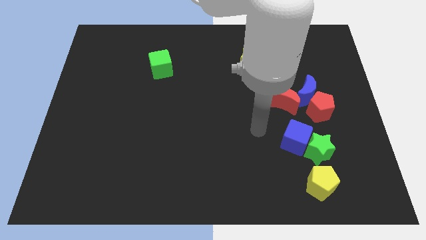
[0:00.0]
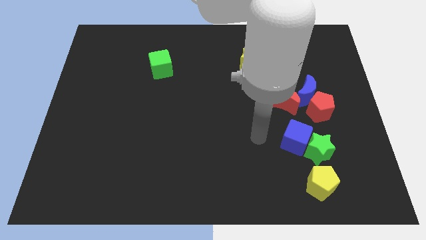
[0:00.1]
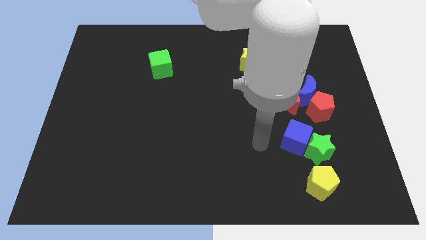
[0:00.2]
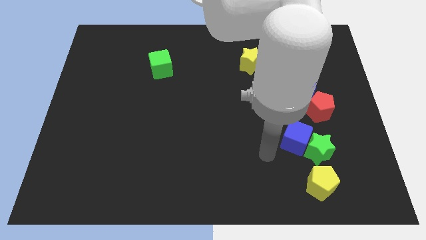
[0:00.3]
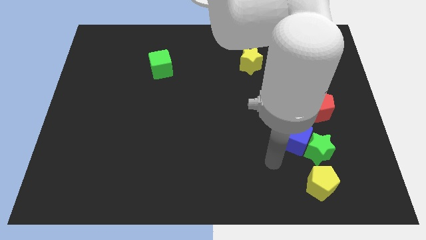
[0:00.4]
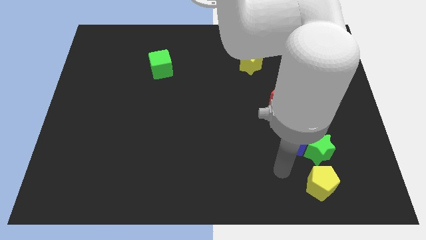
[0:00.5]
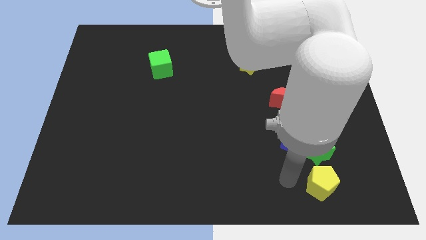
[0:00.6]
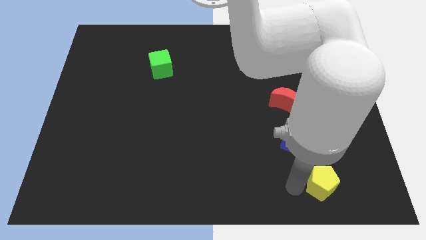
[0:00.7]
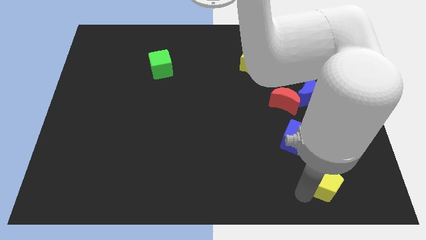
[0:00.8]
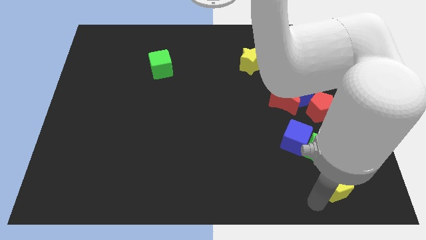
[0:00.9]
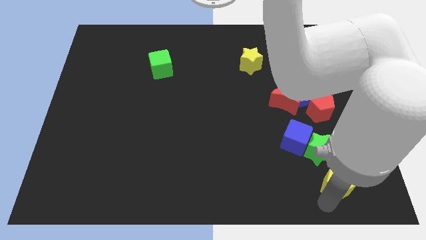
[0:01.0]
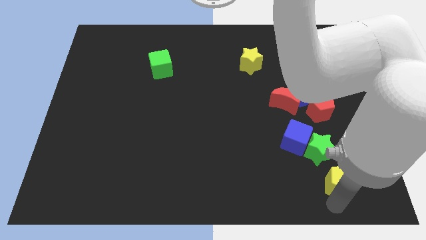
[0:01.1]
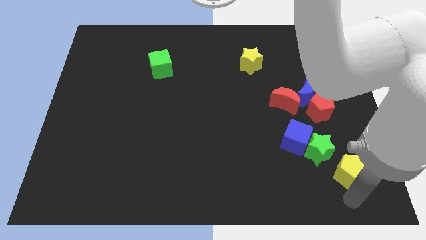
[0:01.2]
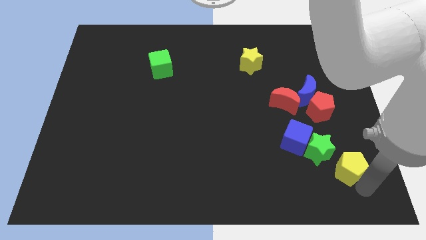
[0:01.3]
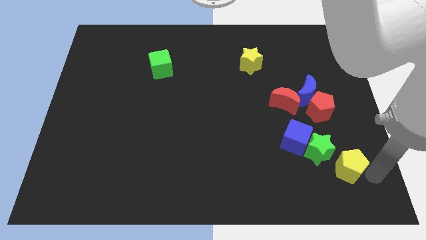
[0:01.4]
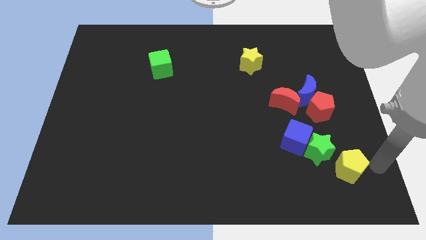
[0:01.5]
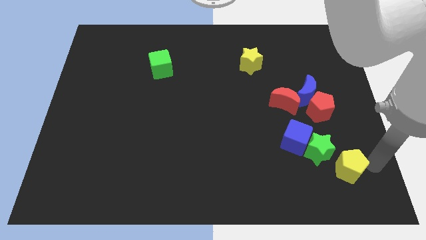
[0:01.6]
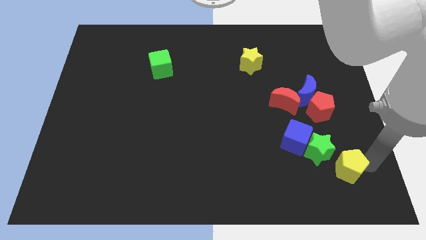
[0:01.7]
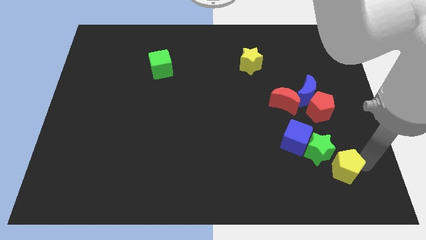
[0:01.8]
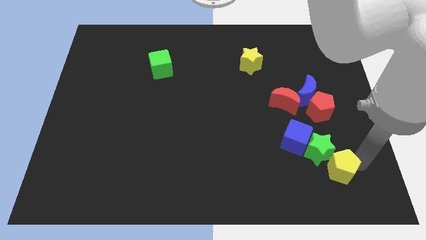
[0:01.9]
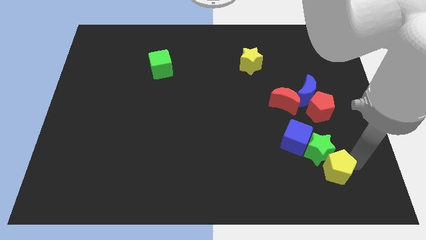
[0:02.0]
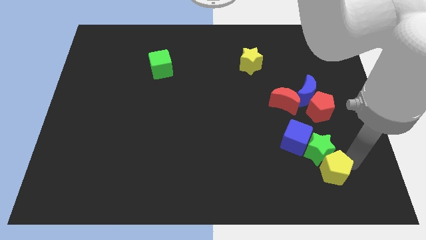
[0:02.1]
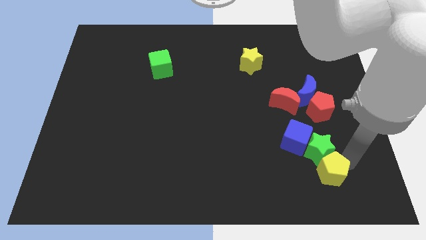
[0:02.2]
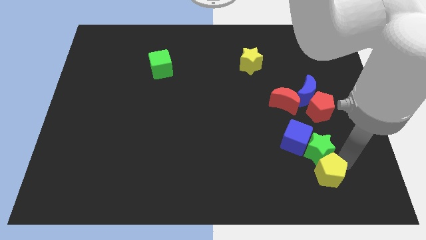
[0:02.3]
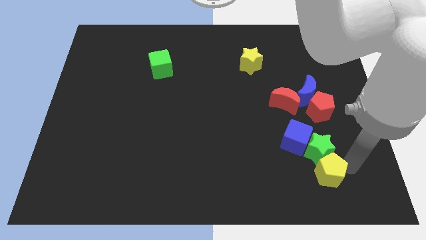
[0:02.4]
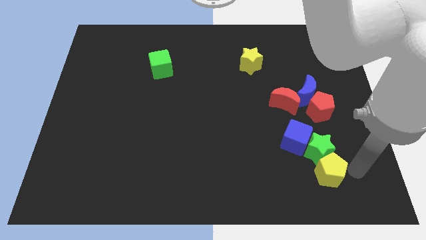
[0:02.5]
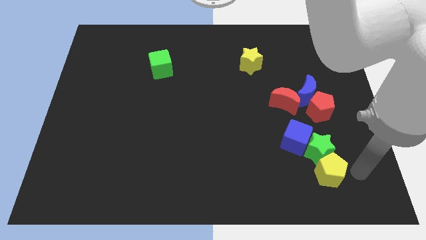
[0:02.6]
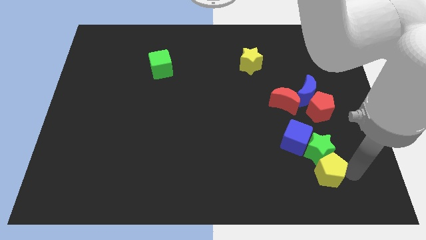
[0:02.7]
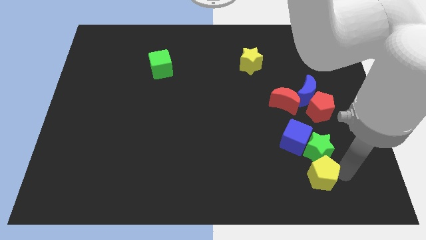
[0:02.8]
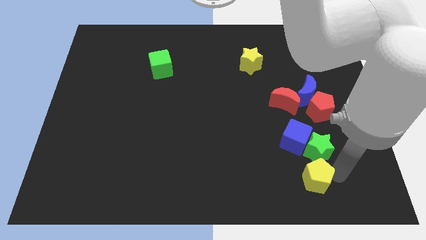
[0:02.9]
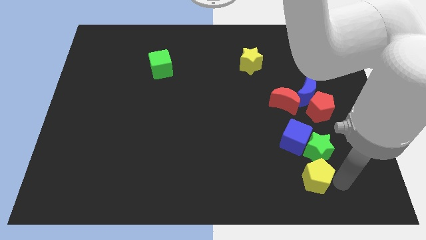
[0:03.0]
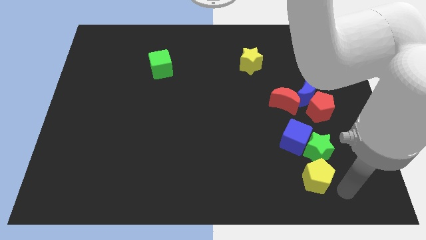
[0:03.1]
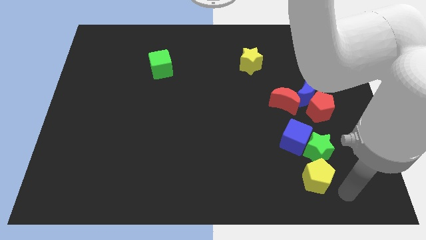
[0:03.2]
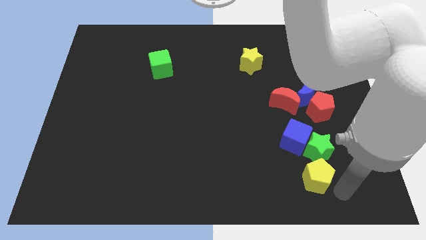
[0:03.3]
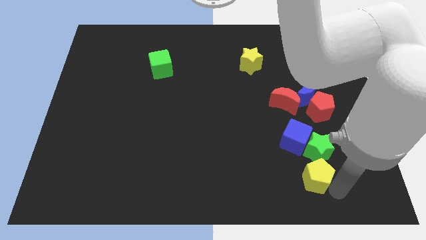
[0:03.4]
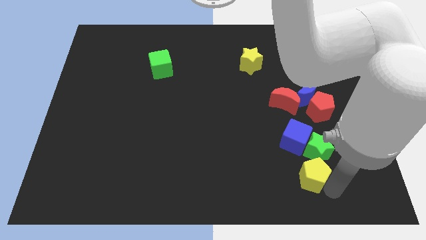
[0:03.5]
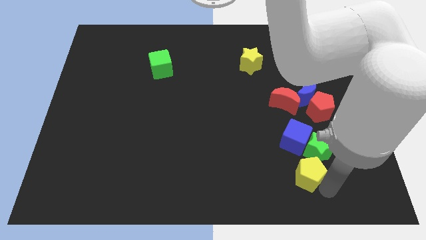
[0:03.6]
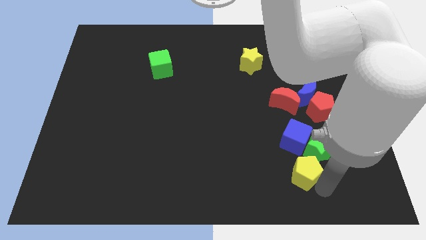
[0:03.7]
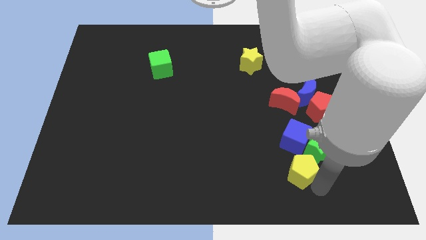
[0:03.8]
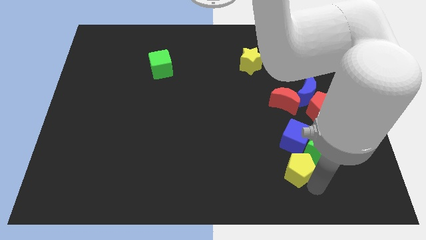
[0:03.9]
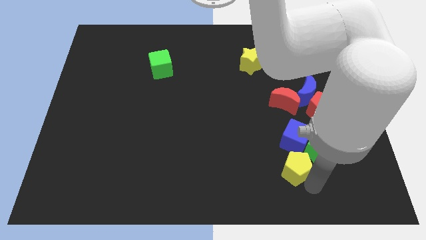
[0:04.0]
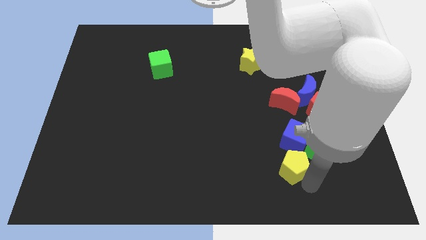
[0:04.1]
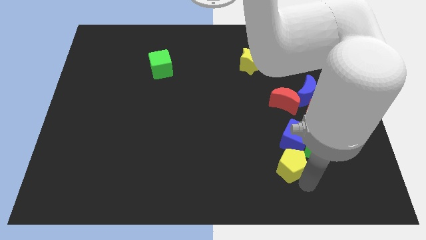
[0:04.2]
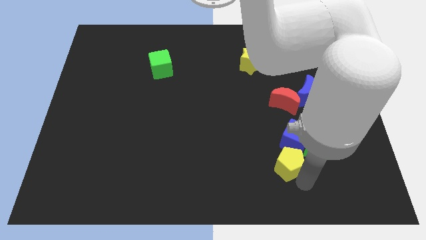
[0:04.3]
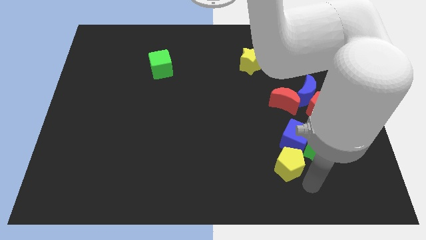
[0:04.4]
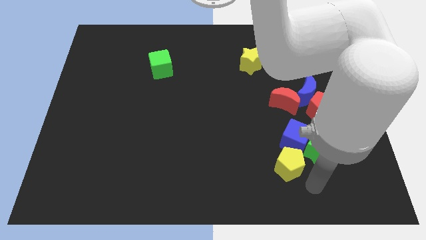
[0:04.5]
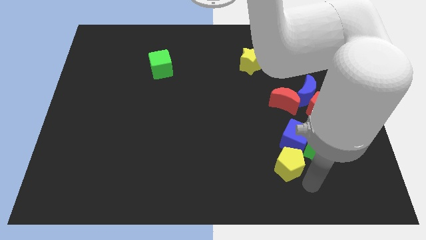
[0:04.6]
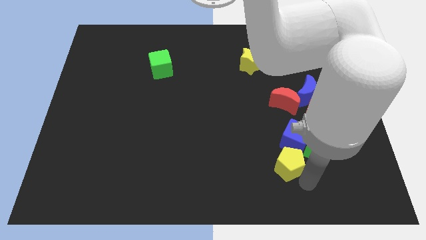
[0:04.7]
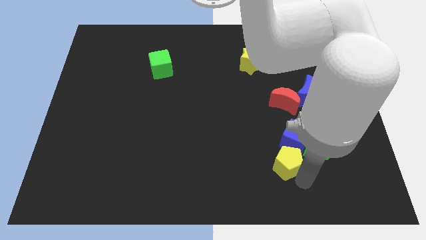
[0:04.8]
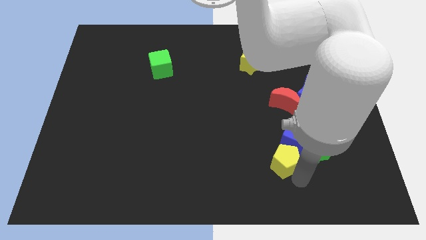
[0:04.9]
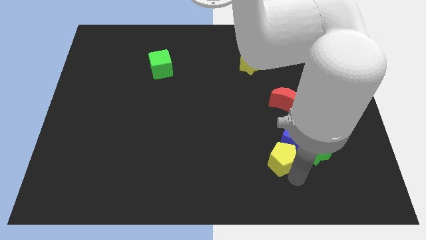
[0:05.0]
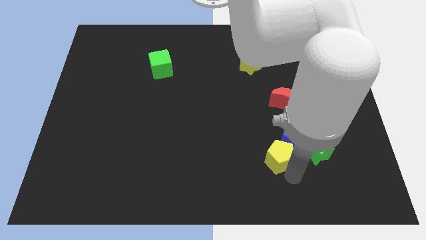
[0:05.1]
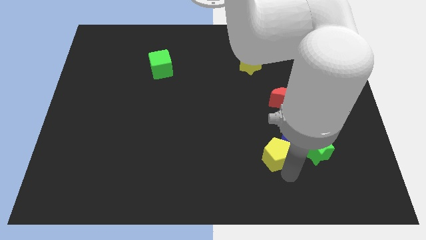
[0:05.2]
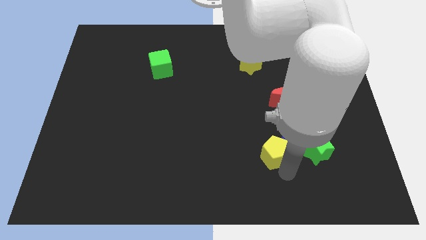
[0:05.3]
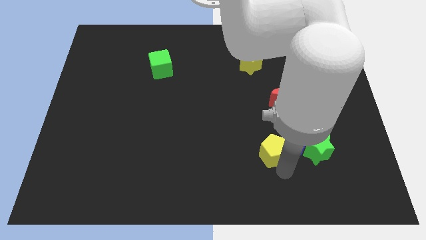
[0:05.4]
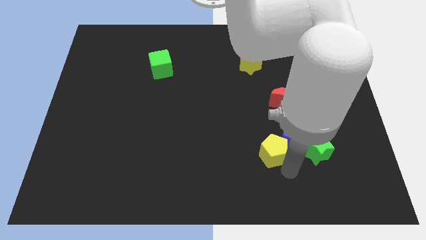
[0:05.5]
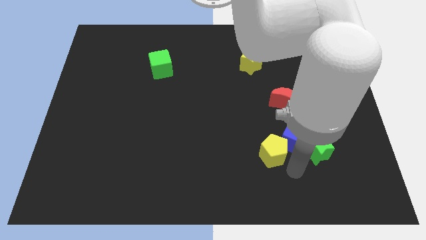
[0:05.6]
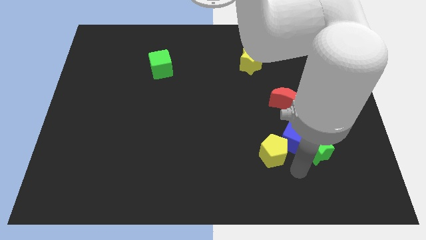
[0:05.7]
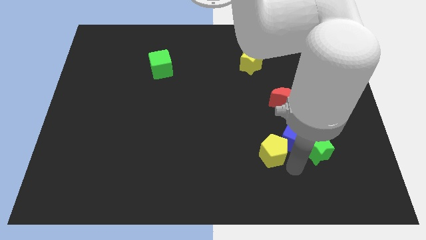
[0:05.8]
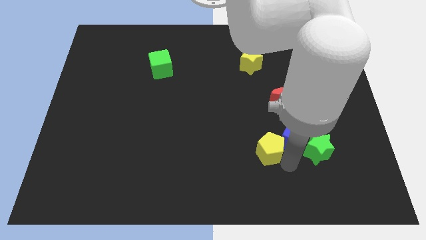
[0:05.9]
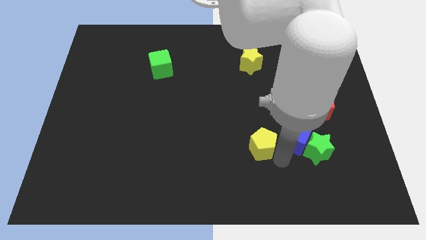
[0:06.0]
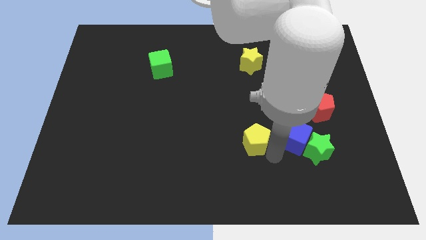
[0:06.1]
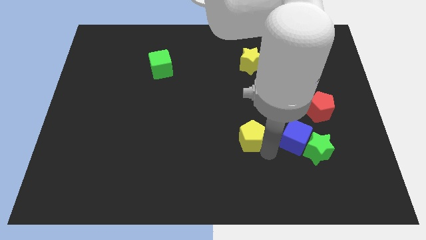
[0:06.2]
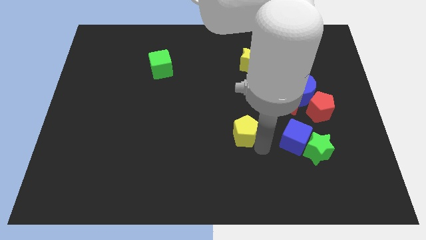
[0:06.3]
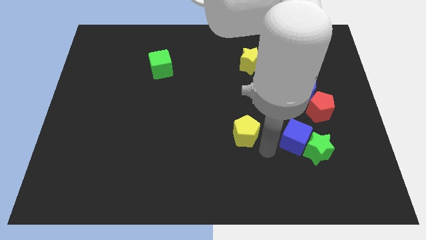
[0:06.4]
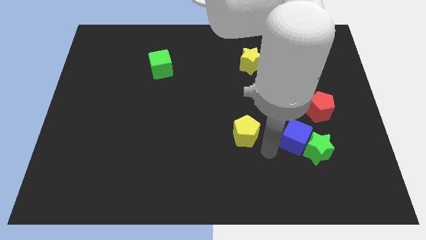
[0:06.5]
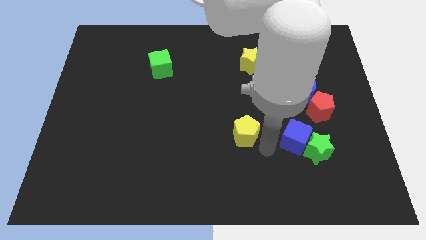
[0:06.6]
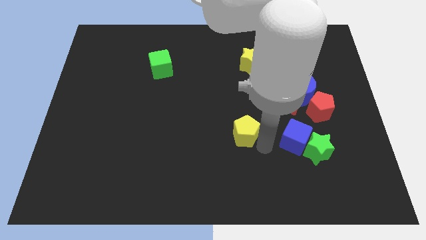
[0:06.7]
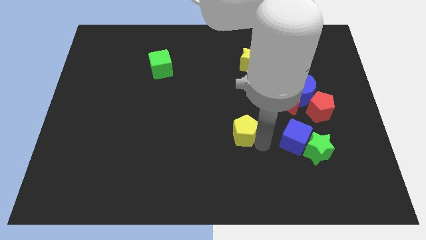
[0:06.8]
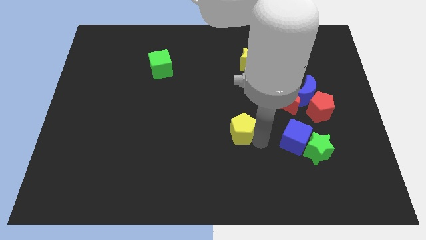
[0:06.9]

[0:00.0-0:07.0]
move the yellow pentagon upwards and to the left

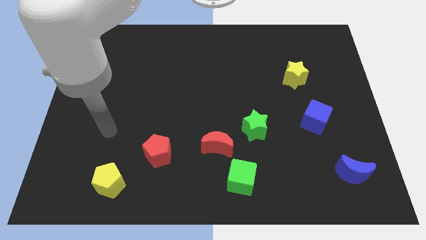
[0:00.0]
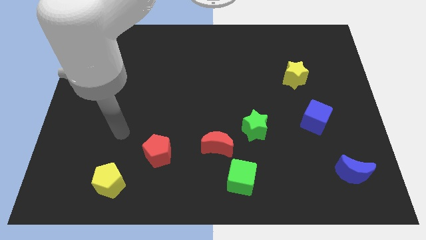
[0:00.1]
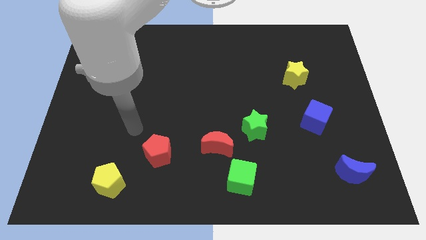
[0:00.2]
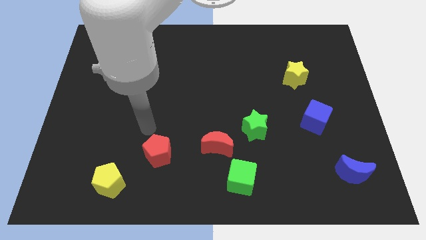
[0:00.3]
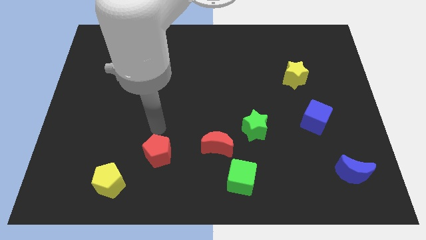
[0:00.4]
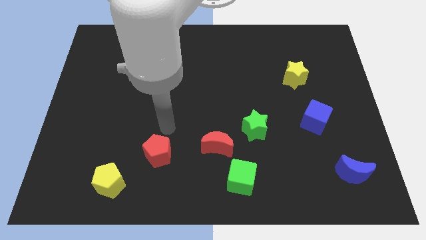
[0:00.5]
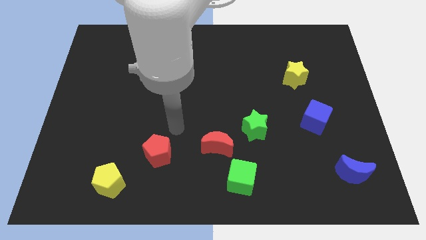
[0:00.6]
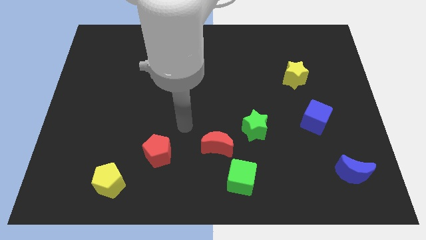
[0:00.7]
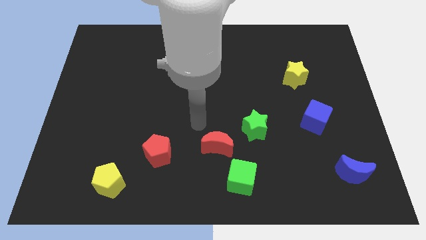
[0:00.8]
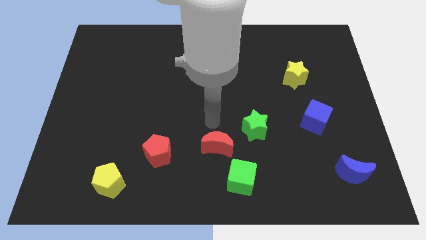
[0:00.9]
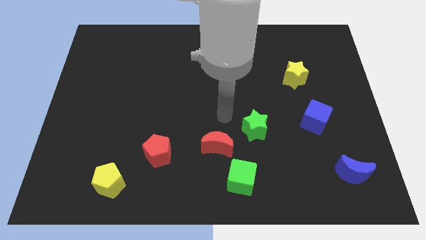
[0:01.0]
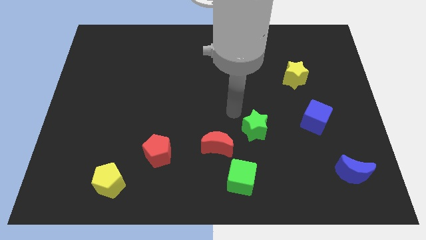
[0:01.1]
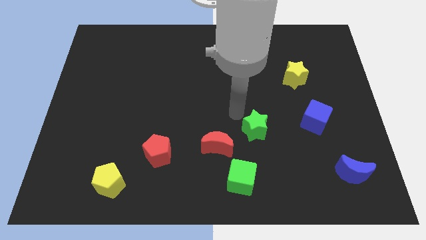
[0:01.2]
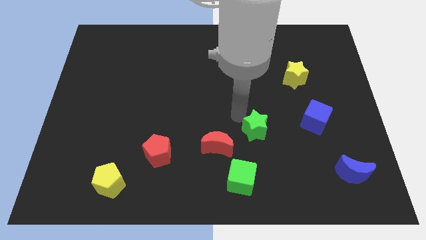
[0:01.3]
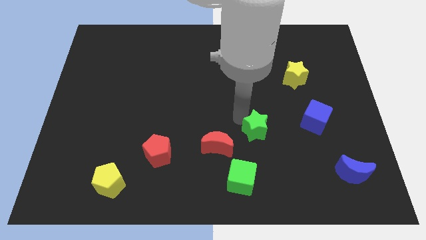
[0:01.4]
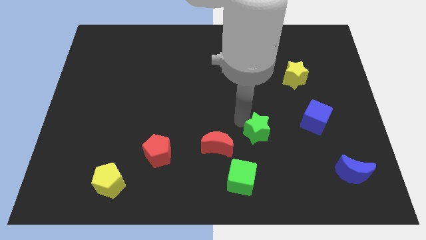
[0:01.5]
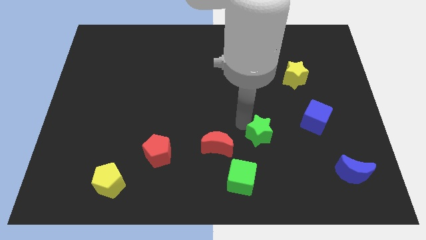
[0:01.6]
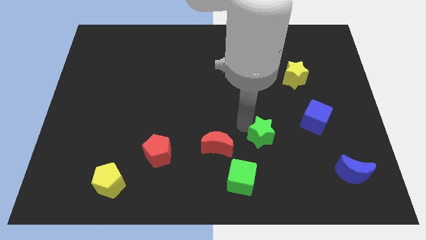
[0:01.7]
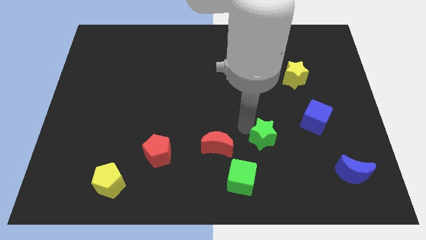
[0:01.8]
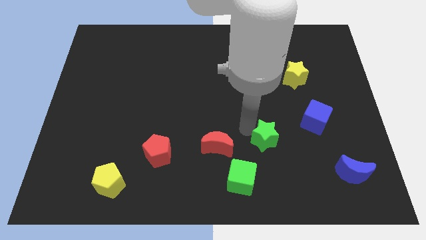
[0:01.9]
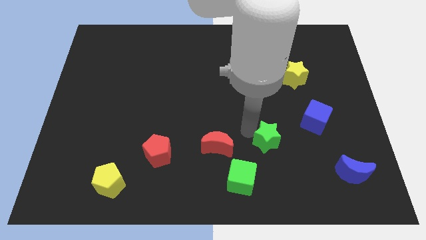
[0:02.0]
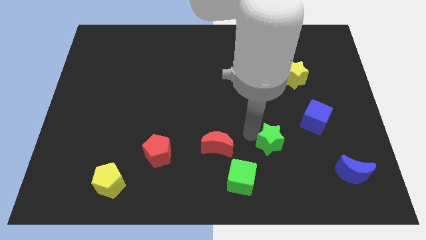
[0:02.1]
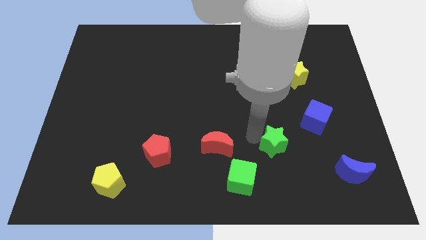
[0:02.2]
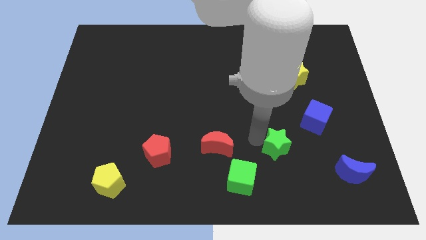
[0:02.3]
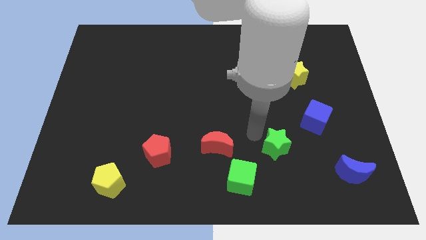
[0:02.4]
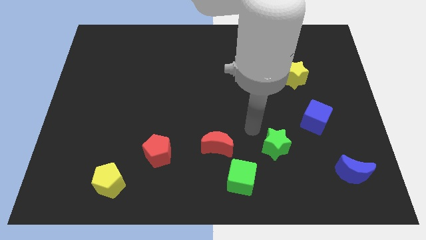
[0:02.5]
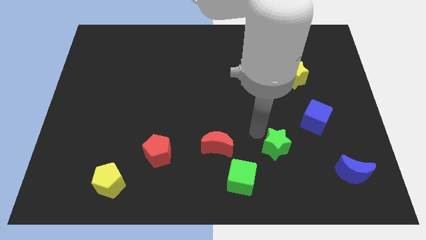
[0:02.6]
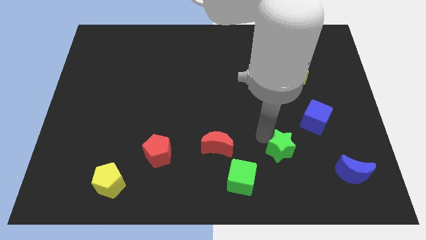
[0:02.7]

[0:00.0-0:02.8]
push the green star downwards and right a little
